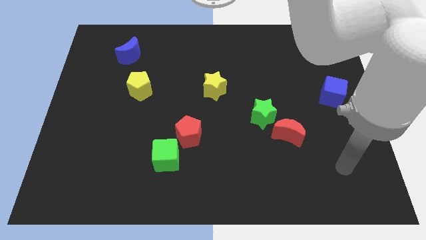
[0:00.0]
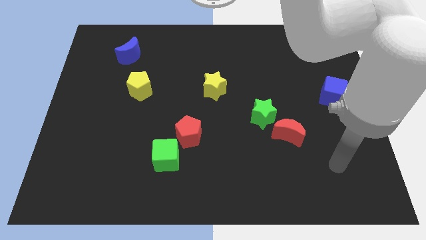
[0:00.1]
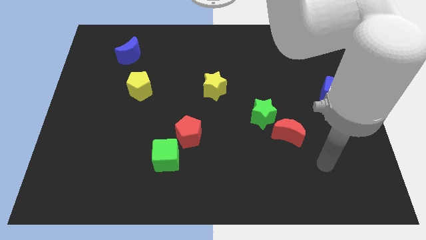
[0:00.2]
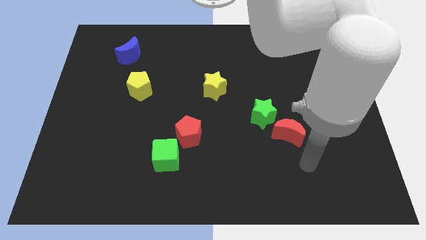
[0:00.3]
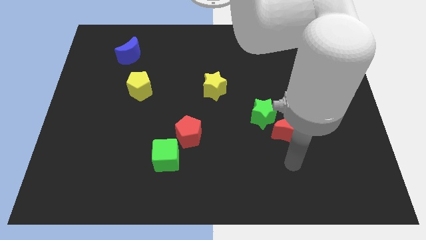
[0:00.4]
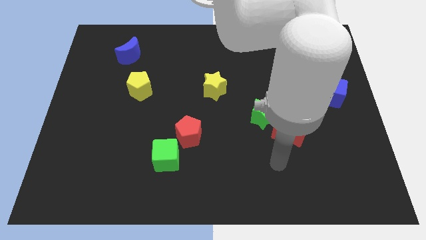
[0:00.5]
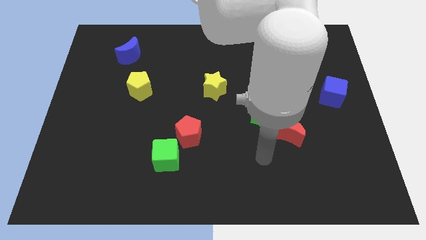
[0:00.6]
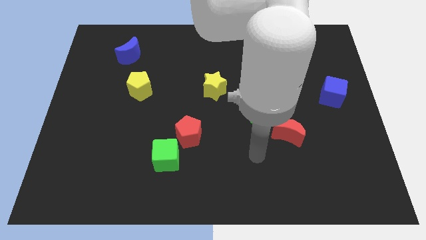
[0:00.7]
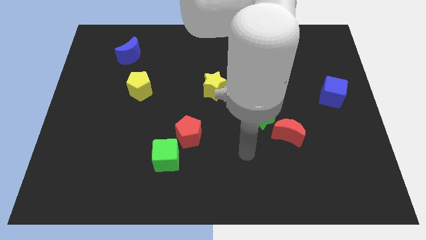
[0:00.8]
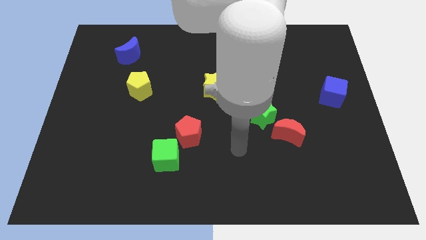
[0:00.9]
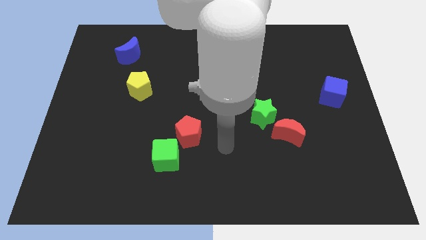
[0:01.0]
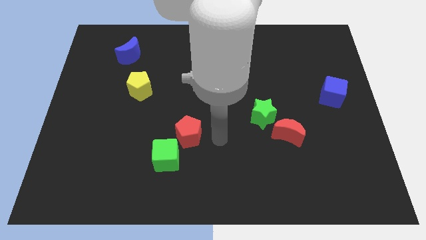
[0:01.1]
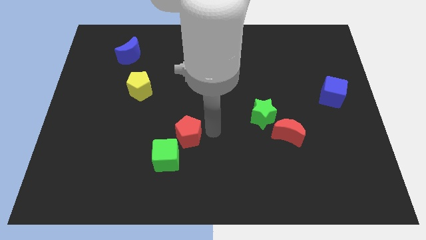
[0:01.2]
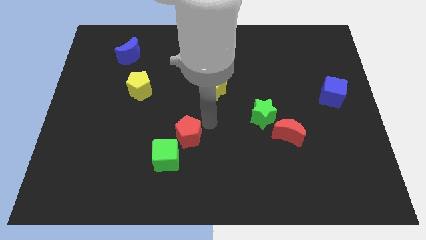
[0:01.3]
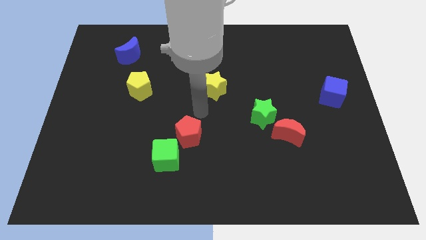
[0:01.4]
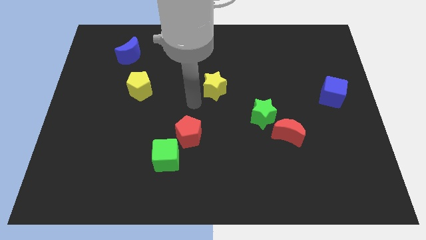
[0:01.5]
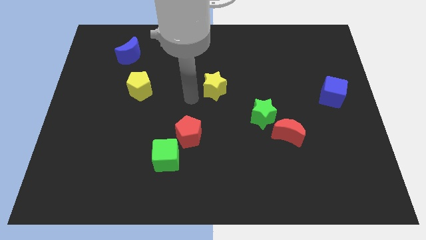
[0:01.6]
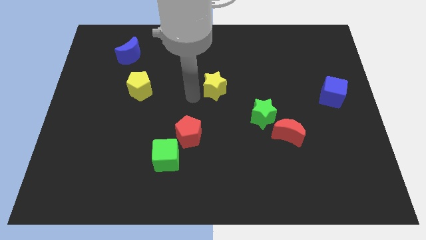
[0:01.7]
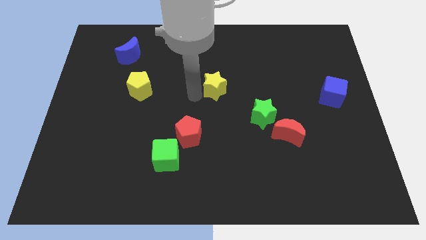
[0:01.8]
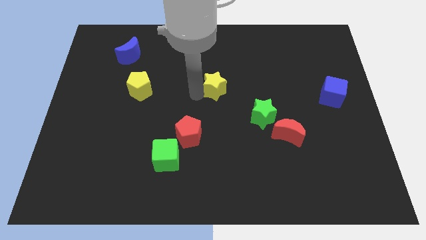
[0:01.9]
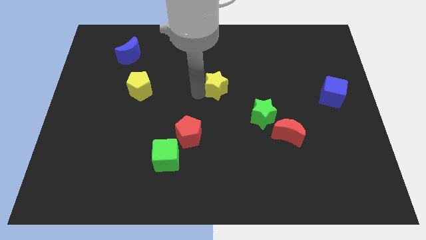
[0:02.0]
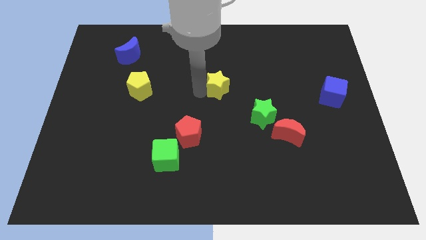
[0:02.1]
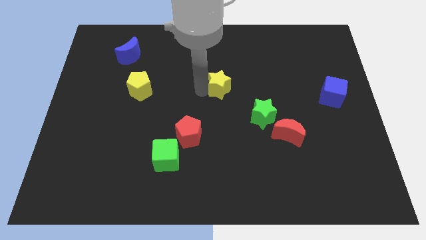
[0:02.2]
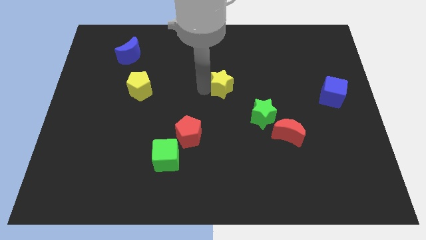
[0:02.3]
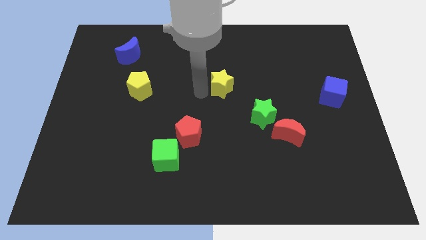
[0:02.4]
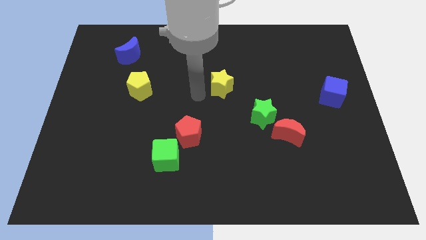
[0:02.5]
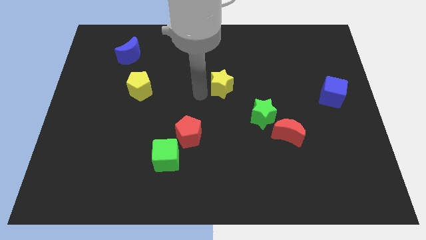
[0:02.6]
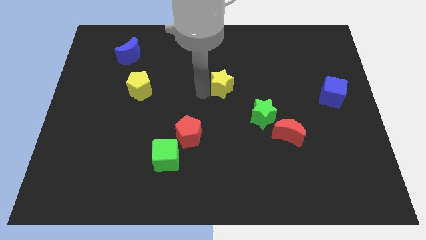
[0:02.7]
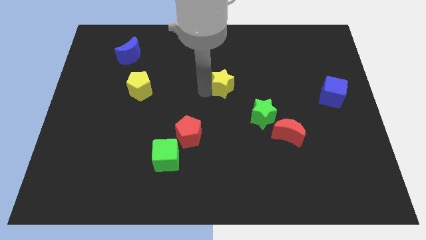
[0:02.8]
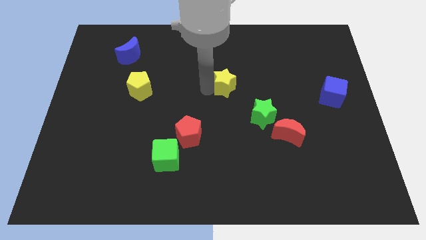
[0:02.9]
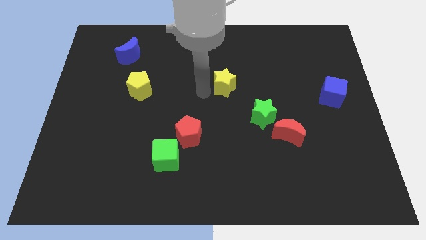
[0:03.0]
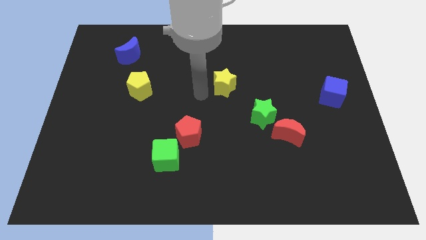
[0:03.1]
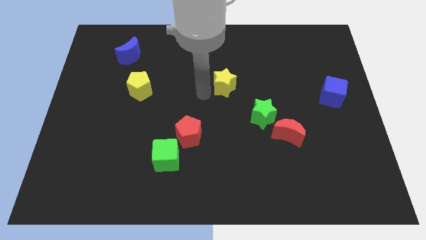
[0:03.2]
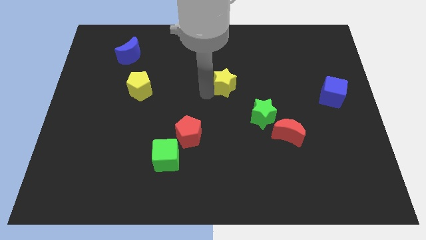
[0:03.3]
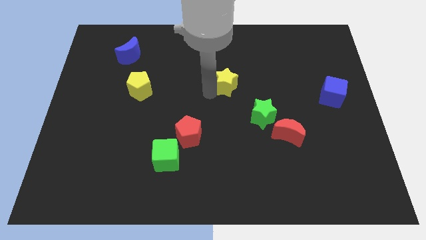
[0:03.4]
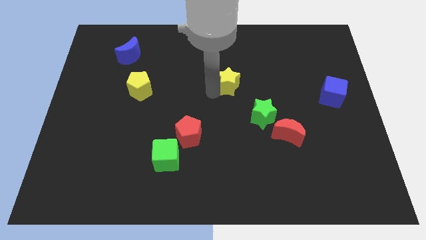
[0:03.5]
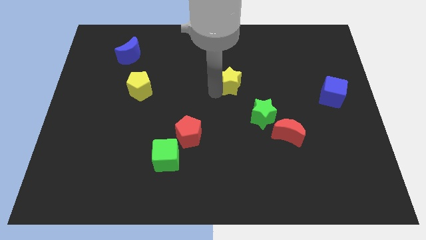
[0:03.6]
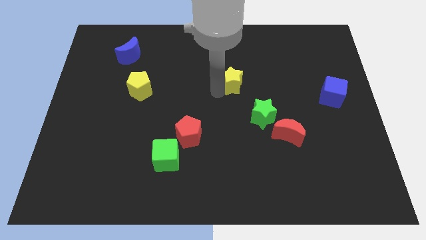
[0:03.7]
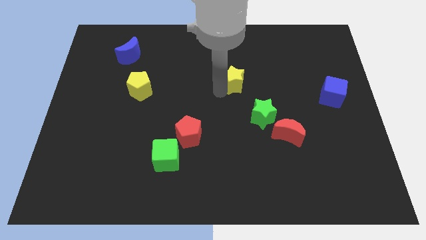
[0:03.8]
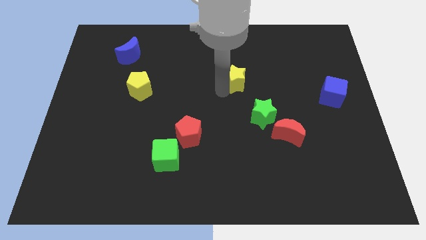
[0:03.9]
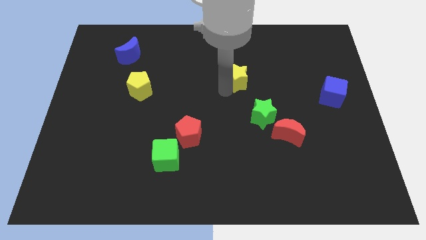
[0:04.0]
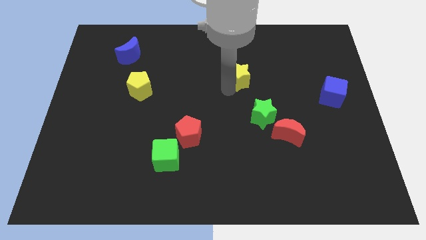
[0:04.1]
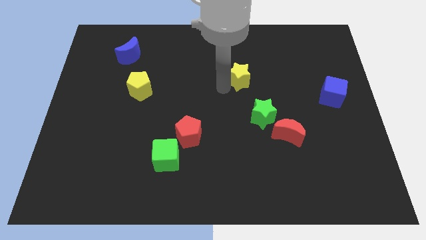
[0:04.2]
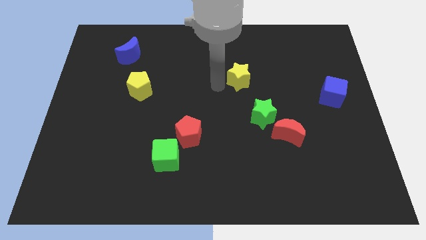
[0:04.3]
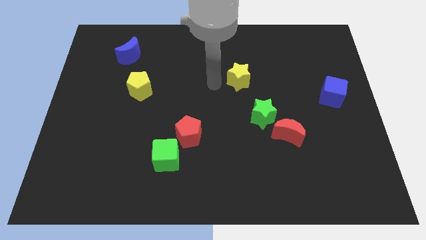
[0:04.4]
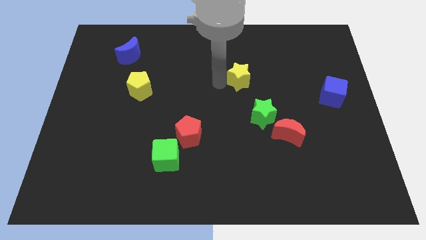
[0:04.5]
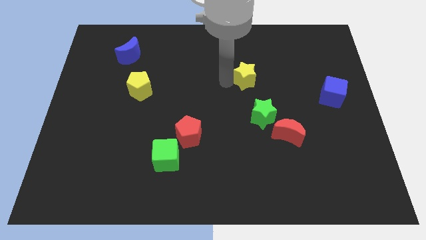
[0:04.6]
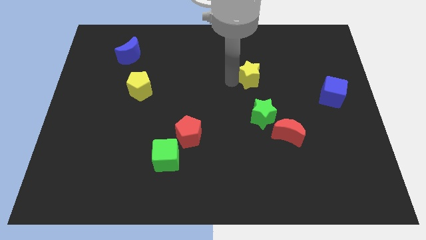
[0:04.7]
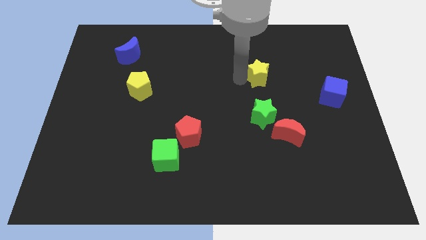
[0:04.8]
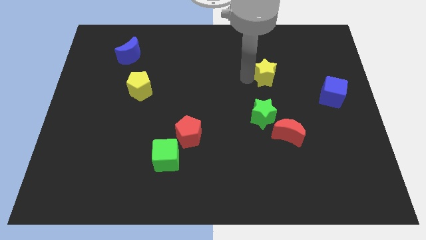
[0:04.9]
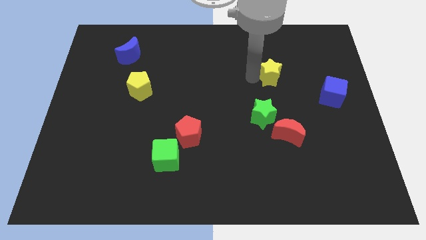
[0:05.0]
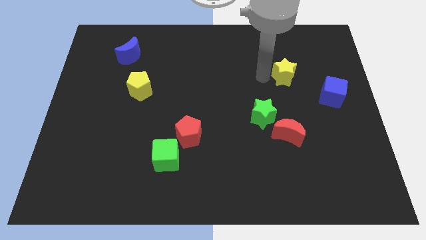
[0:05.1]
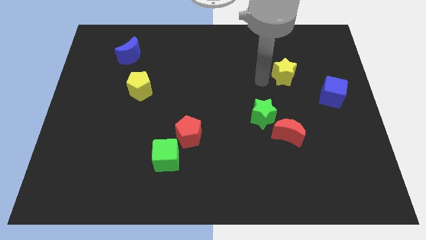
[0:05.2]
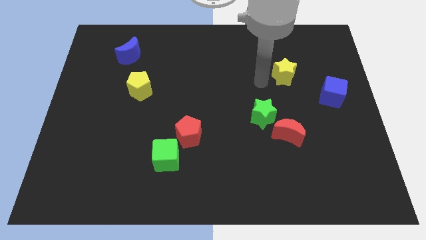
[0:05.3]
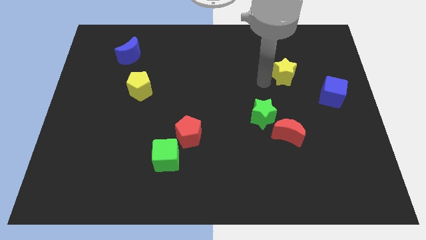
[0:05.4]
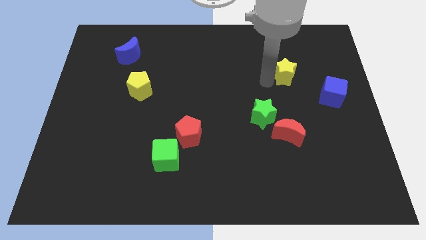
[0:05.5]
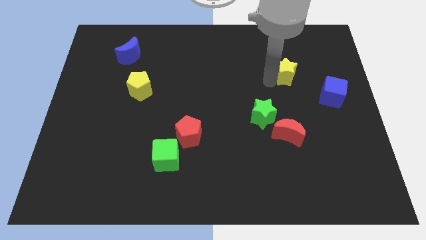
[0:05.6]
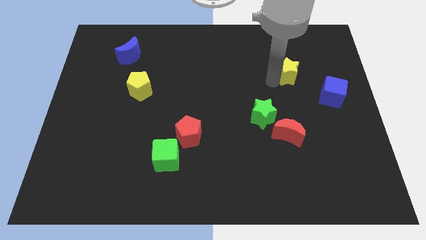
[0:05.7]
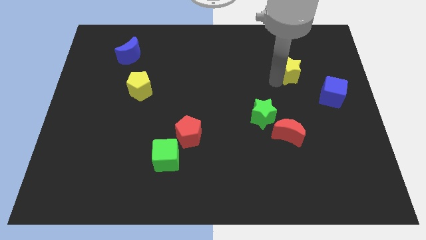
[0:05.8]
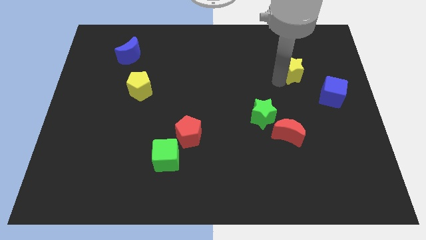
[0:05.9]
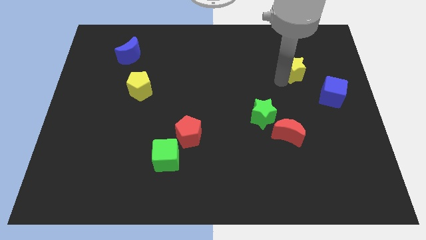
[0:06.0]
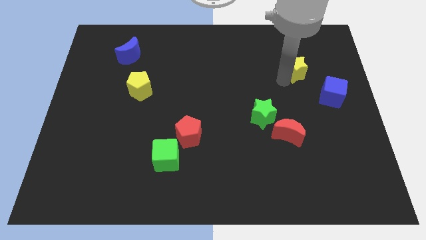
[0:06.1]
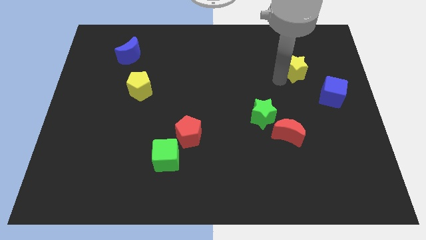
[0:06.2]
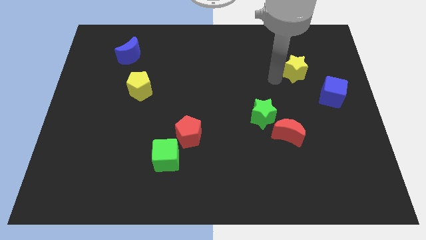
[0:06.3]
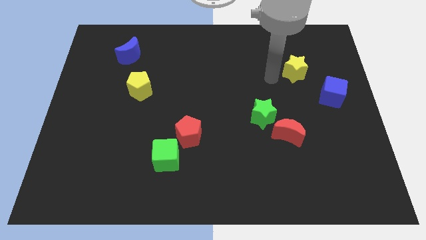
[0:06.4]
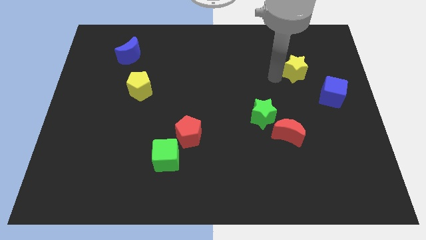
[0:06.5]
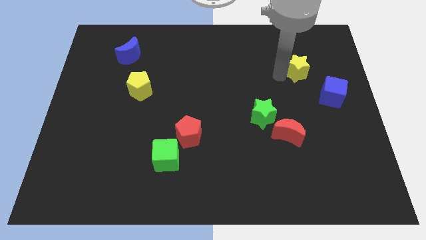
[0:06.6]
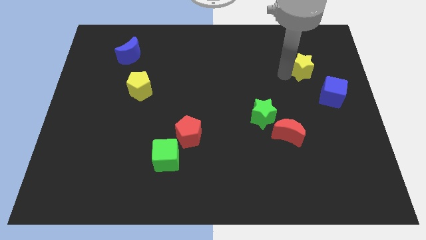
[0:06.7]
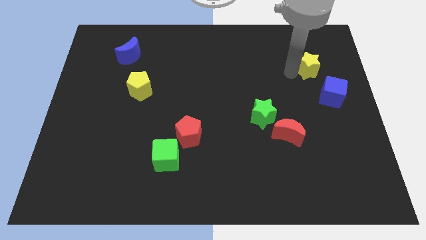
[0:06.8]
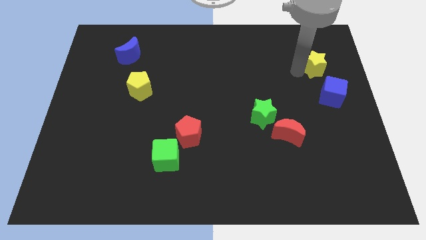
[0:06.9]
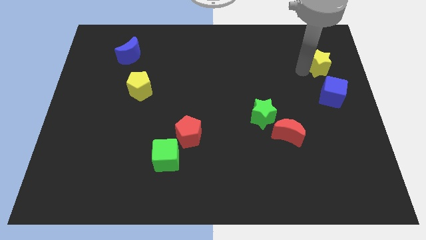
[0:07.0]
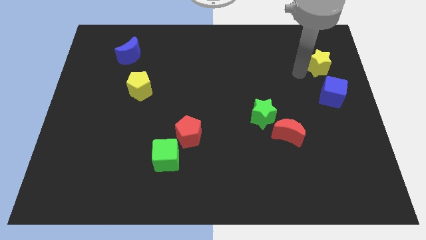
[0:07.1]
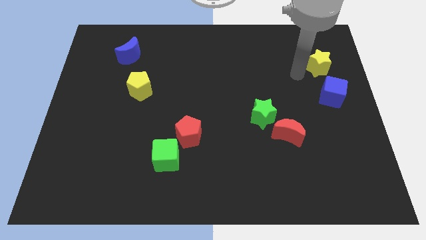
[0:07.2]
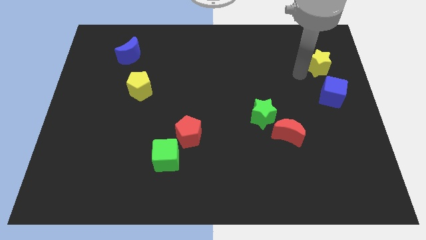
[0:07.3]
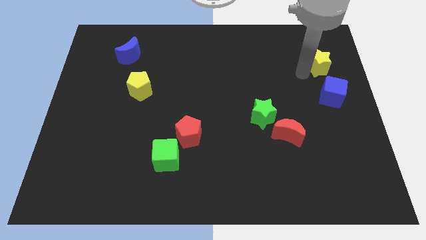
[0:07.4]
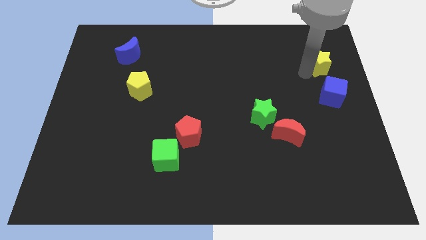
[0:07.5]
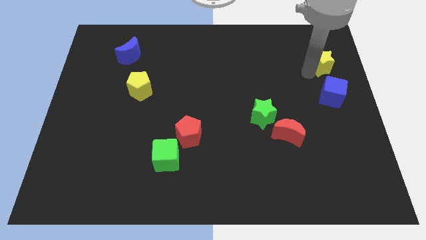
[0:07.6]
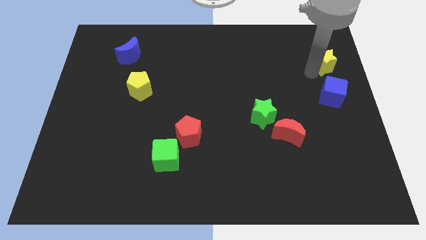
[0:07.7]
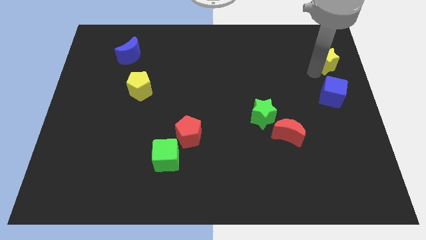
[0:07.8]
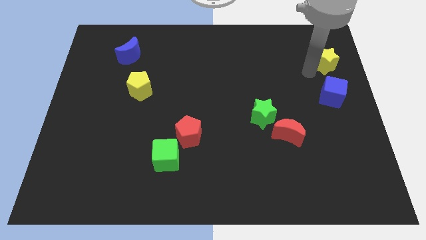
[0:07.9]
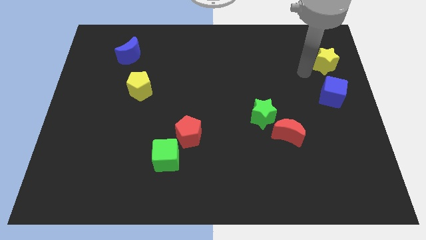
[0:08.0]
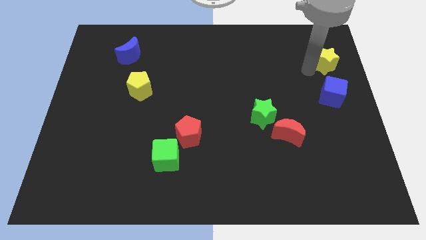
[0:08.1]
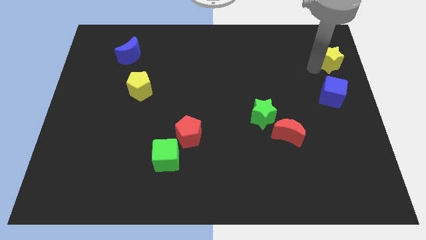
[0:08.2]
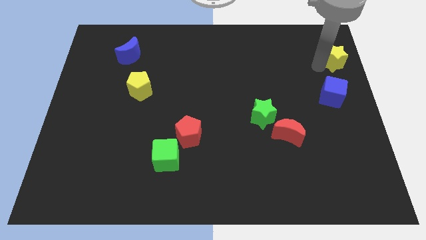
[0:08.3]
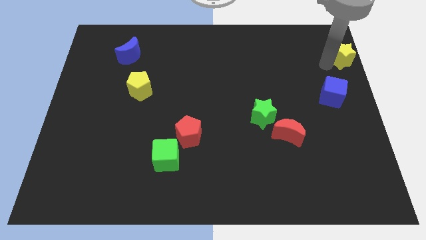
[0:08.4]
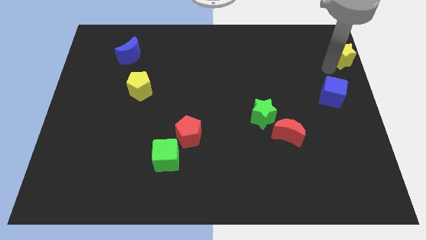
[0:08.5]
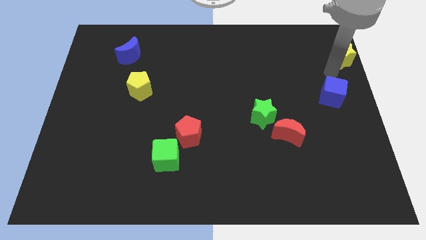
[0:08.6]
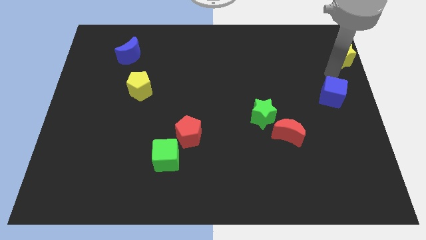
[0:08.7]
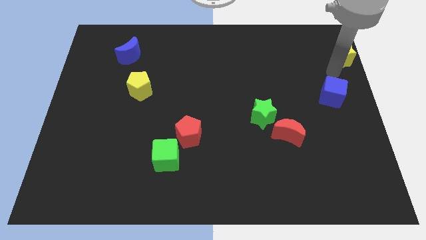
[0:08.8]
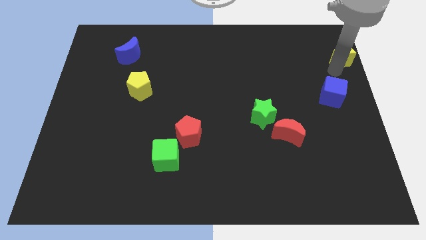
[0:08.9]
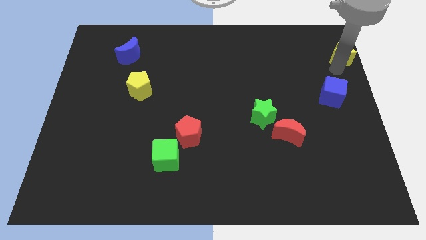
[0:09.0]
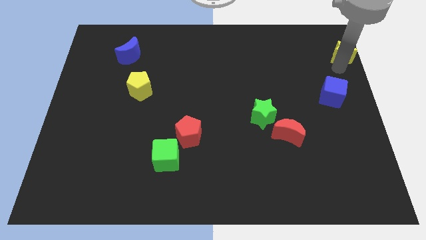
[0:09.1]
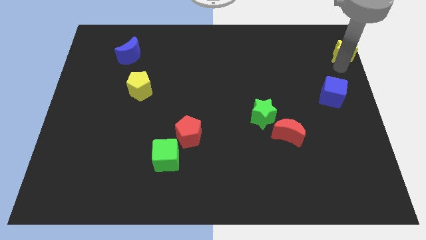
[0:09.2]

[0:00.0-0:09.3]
move the yellow star to the top right of the board
